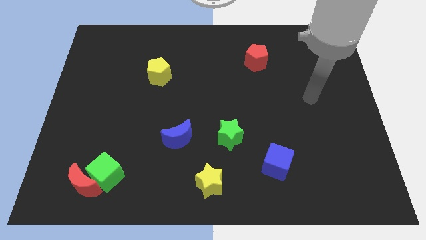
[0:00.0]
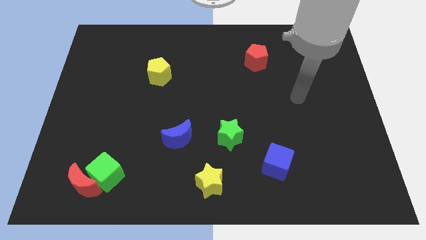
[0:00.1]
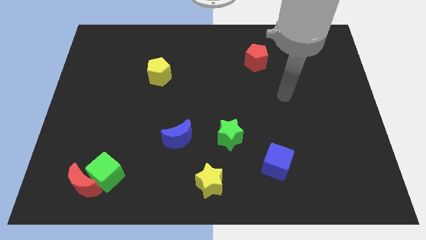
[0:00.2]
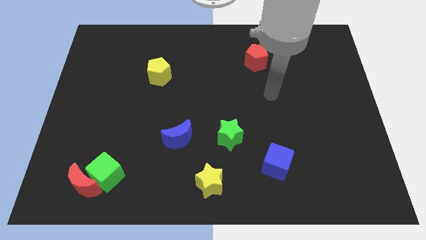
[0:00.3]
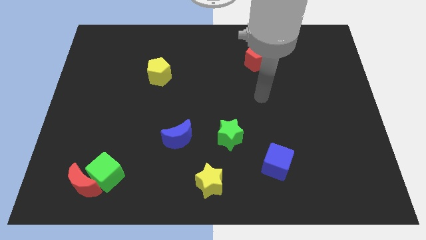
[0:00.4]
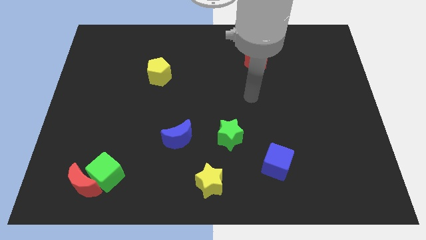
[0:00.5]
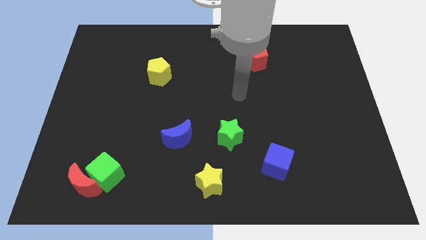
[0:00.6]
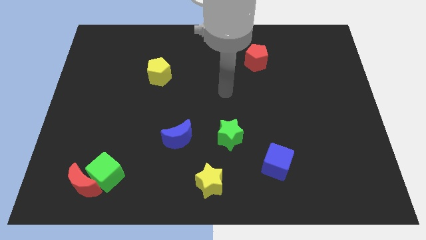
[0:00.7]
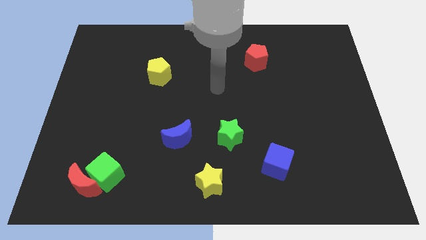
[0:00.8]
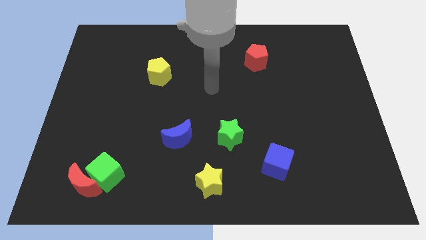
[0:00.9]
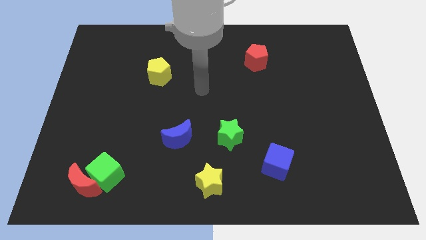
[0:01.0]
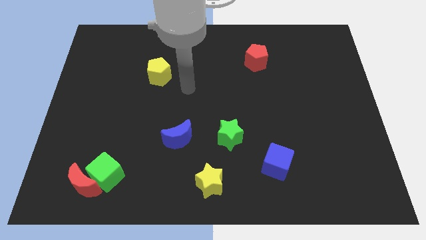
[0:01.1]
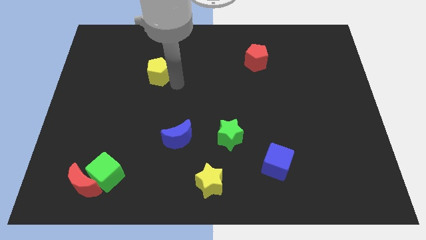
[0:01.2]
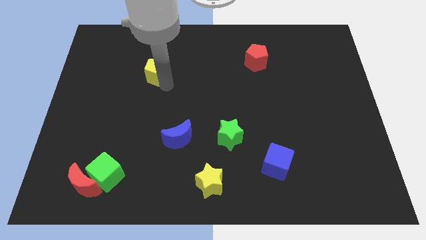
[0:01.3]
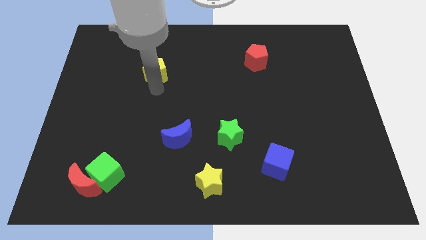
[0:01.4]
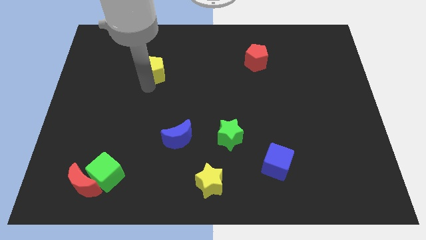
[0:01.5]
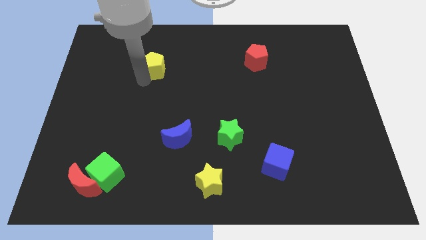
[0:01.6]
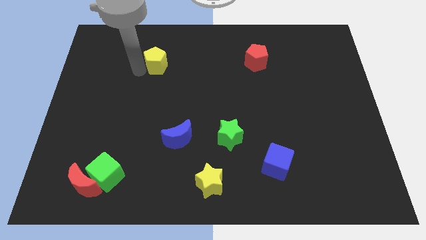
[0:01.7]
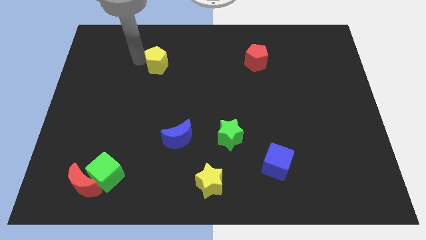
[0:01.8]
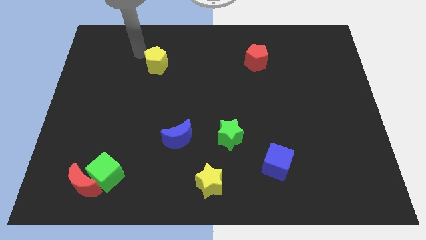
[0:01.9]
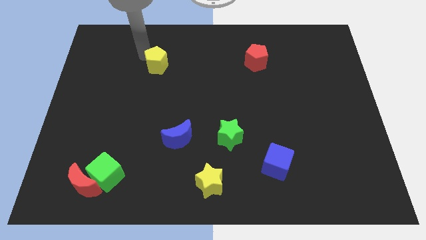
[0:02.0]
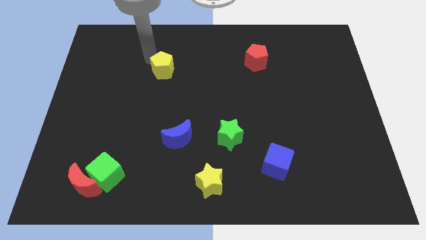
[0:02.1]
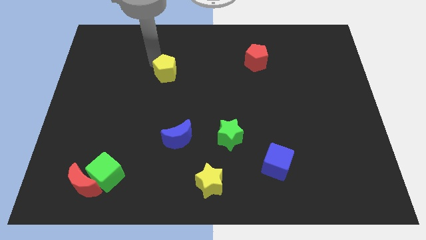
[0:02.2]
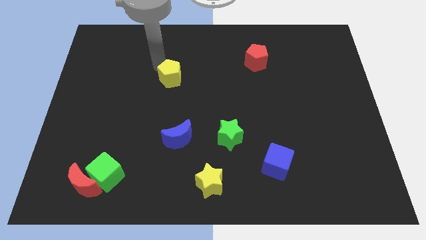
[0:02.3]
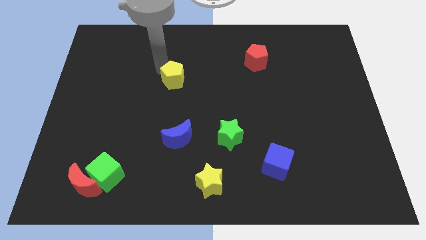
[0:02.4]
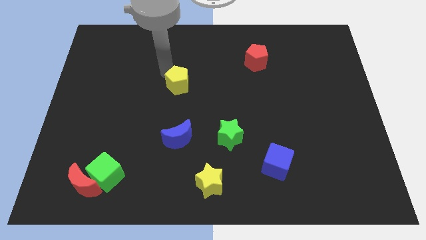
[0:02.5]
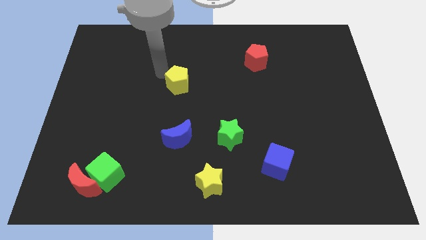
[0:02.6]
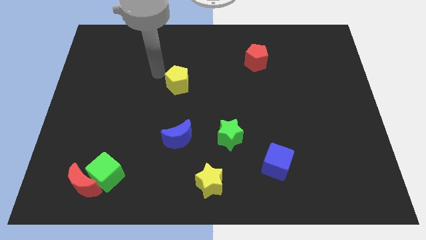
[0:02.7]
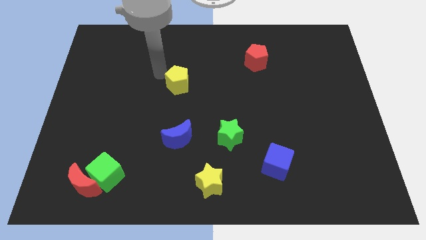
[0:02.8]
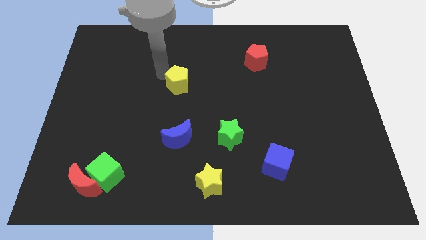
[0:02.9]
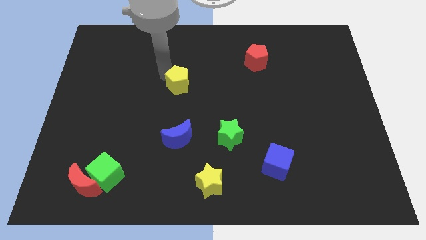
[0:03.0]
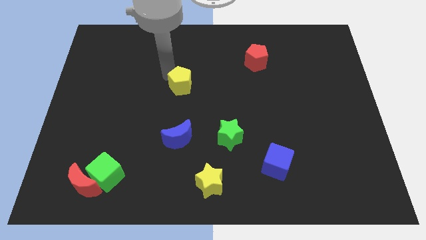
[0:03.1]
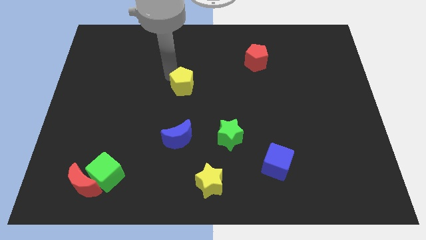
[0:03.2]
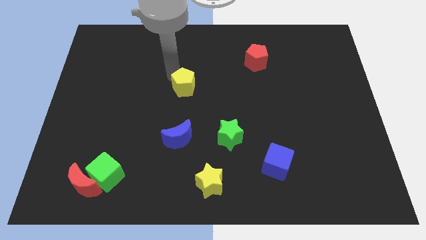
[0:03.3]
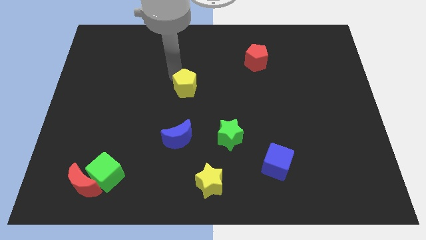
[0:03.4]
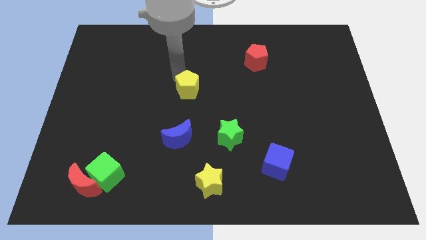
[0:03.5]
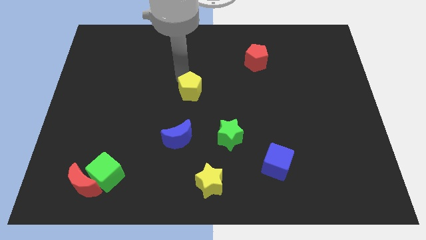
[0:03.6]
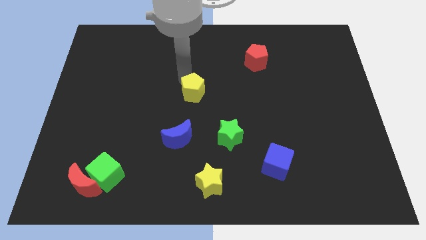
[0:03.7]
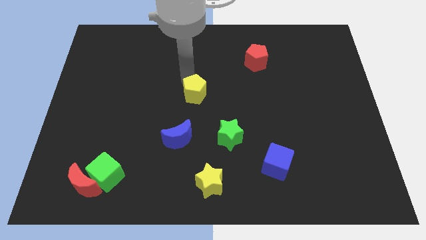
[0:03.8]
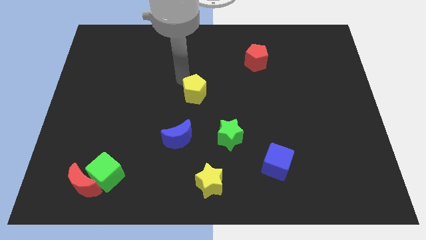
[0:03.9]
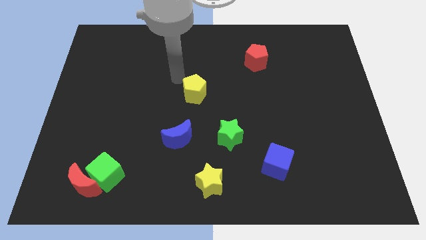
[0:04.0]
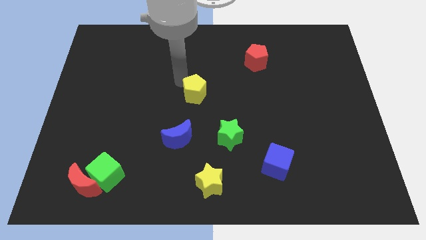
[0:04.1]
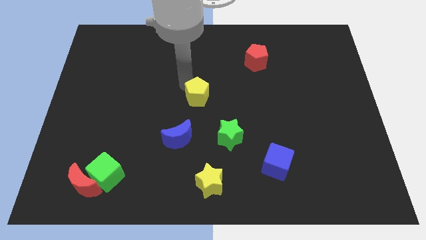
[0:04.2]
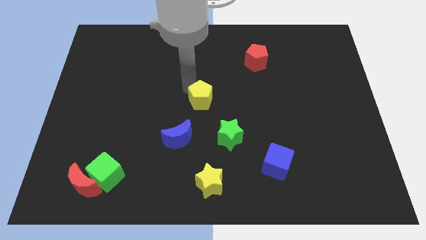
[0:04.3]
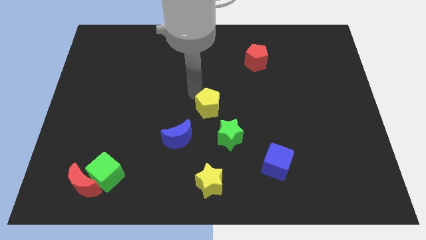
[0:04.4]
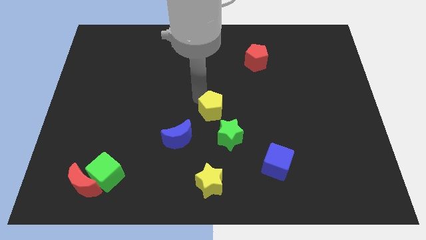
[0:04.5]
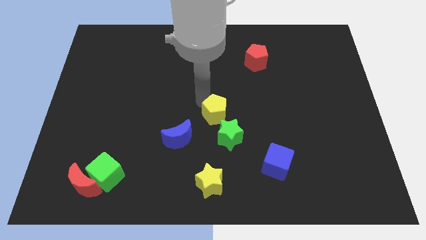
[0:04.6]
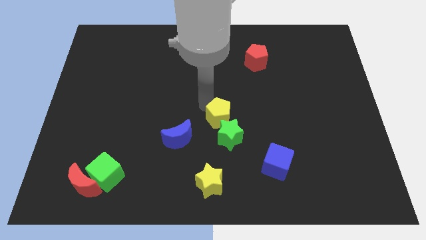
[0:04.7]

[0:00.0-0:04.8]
slide the yellow pentagon downwards and right

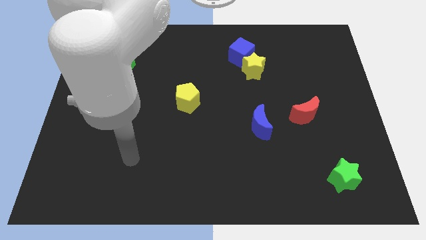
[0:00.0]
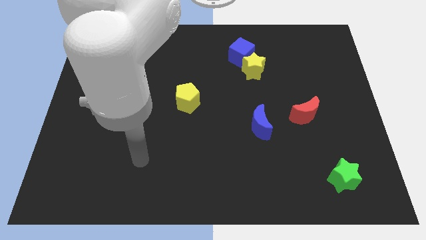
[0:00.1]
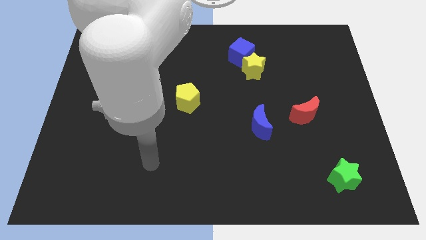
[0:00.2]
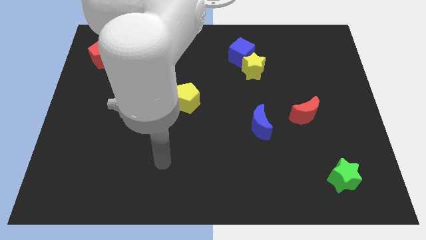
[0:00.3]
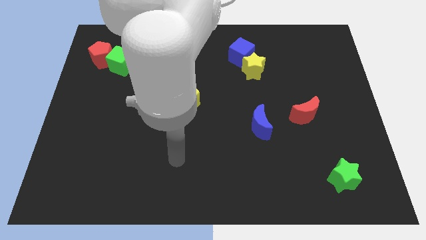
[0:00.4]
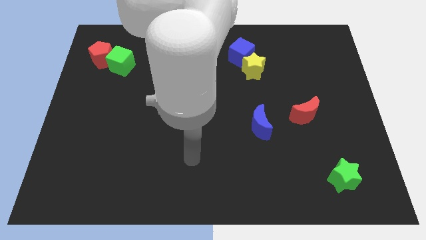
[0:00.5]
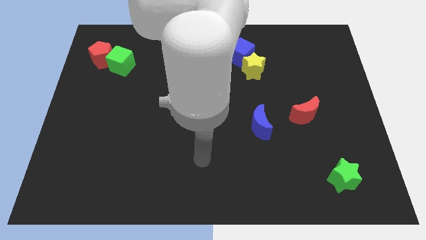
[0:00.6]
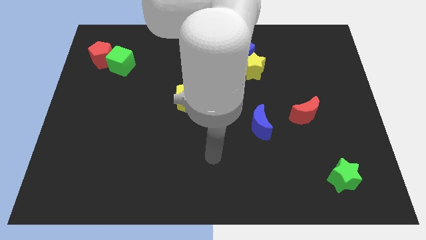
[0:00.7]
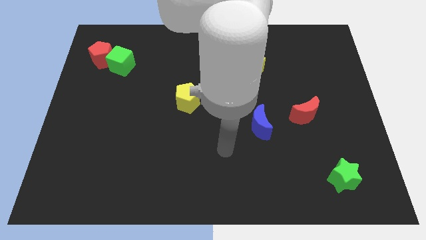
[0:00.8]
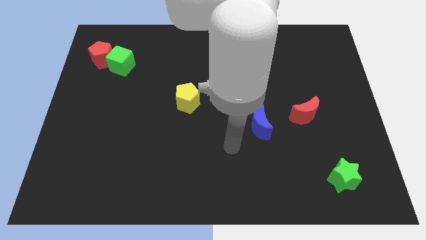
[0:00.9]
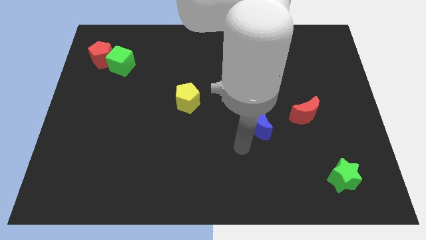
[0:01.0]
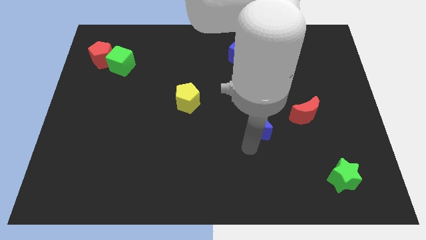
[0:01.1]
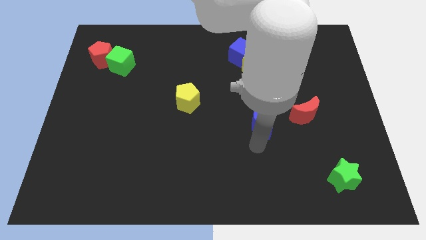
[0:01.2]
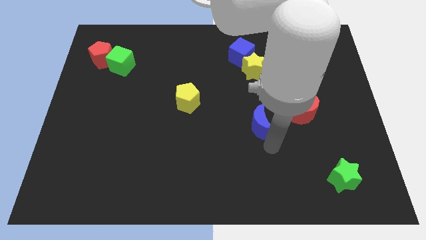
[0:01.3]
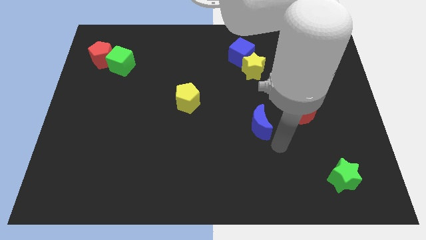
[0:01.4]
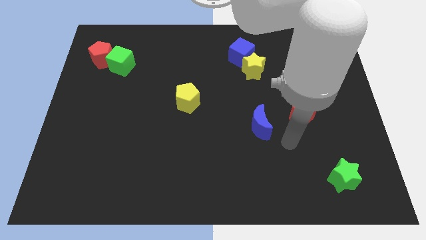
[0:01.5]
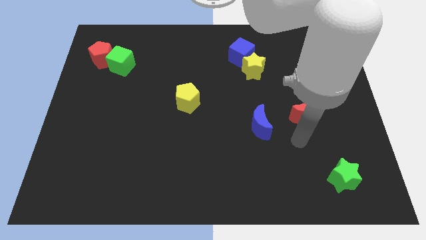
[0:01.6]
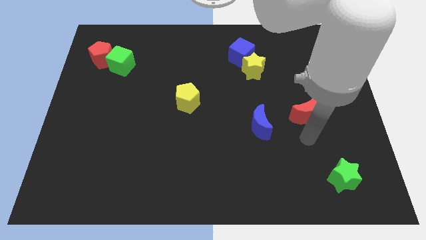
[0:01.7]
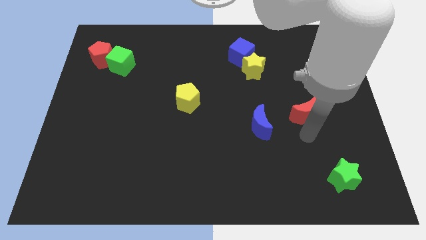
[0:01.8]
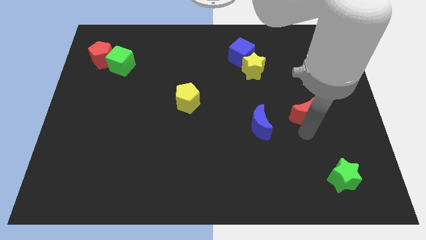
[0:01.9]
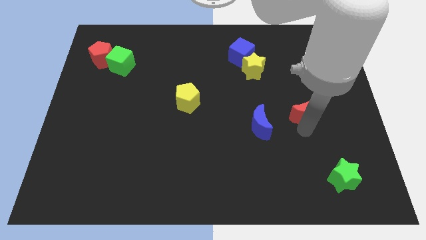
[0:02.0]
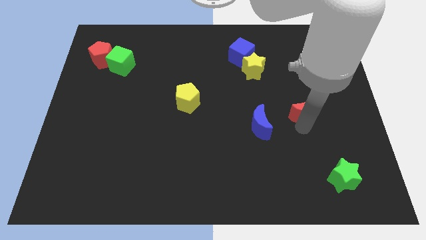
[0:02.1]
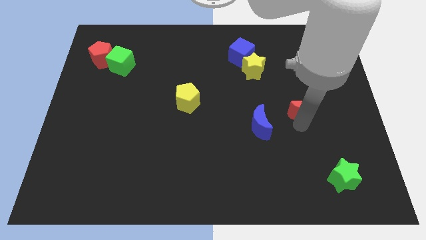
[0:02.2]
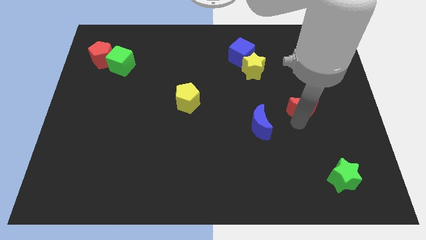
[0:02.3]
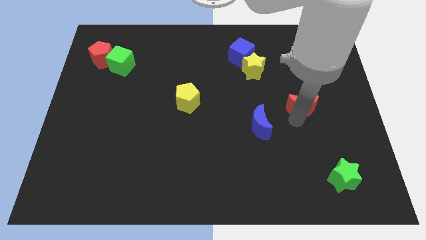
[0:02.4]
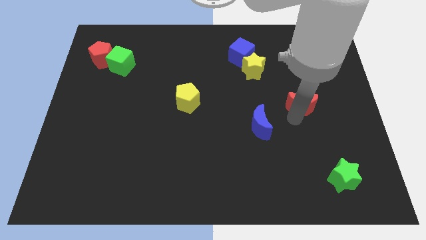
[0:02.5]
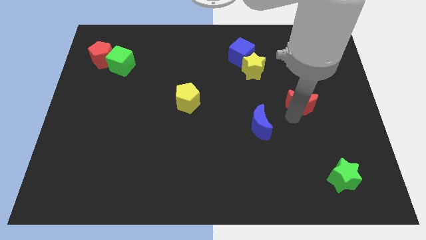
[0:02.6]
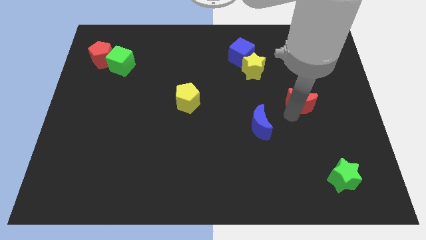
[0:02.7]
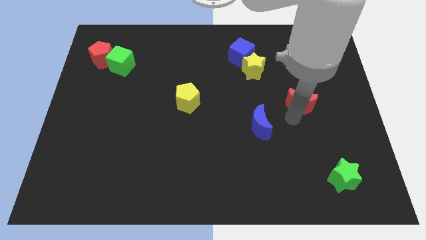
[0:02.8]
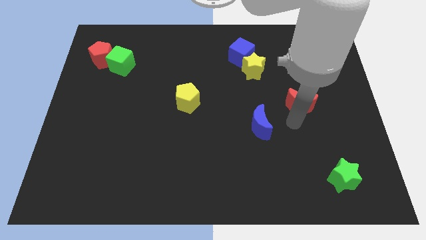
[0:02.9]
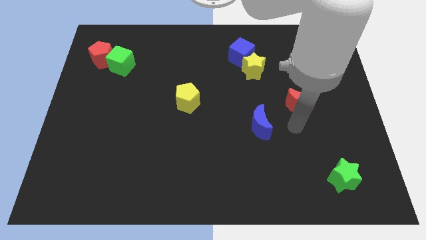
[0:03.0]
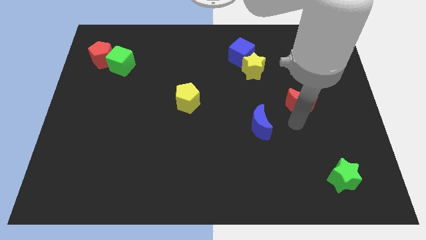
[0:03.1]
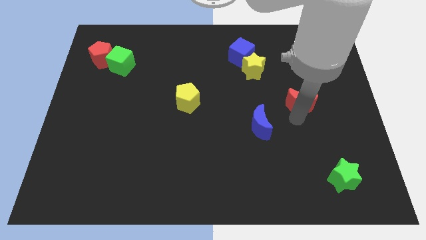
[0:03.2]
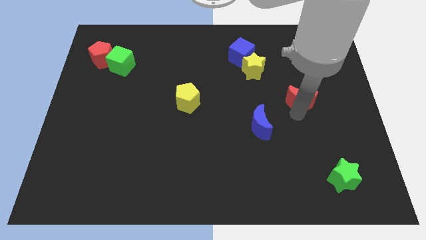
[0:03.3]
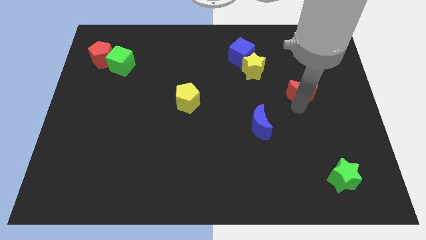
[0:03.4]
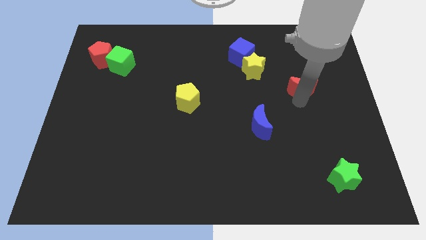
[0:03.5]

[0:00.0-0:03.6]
move the red moon upwards somewhat
